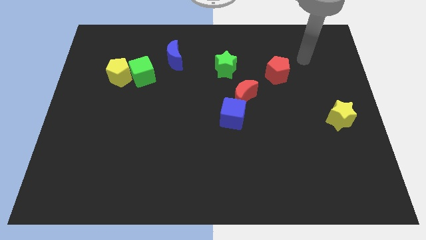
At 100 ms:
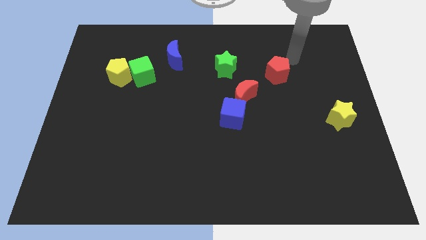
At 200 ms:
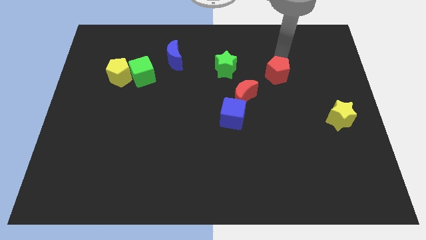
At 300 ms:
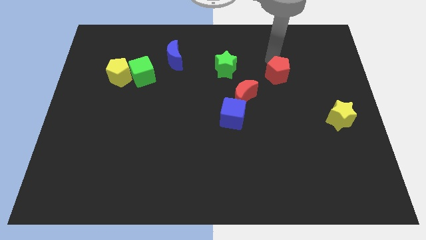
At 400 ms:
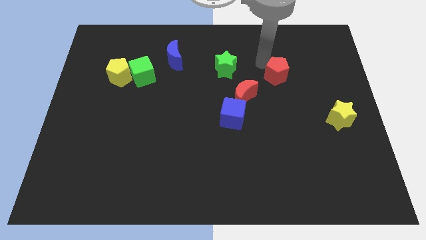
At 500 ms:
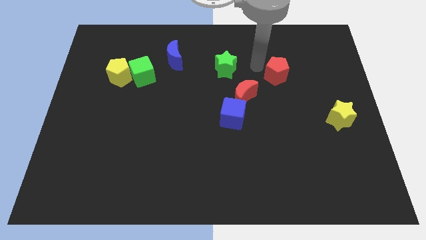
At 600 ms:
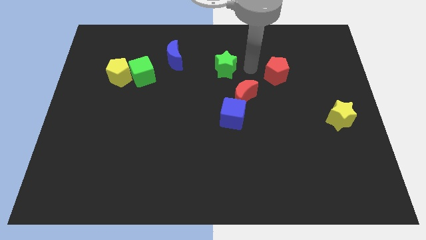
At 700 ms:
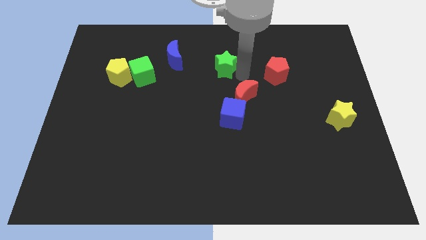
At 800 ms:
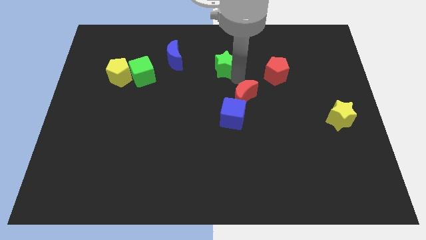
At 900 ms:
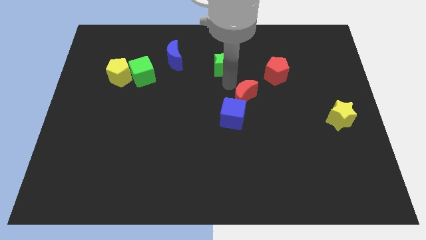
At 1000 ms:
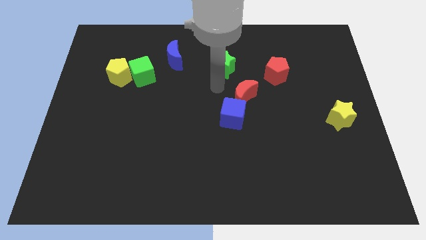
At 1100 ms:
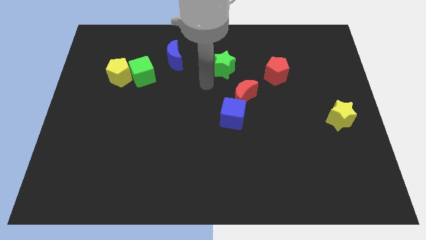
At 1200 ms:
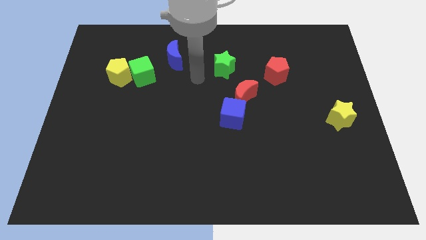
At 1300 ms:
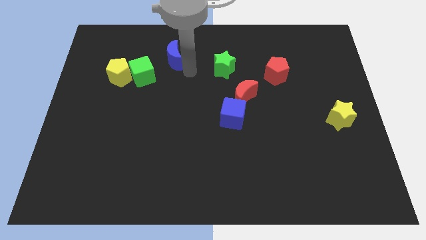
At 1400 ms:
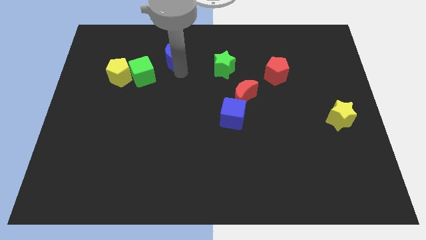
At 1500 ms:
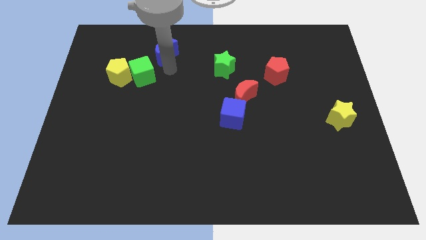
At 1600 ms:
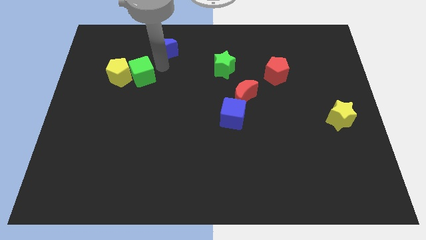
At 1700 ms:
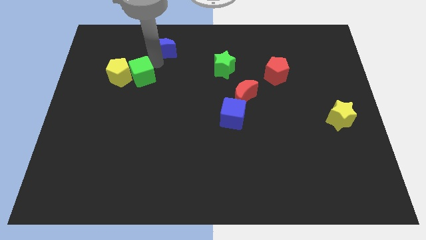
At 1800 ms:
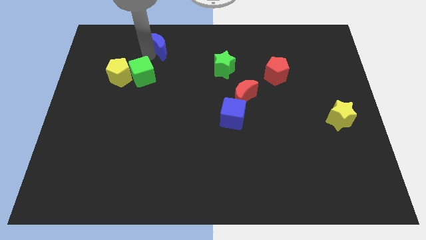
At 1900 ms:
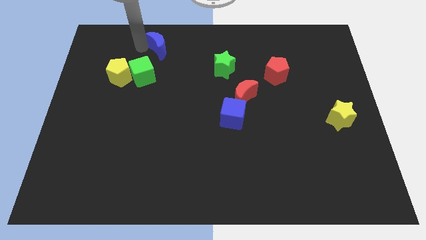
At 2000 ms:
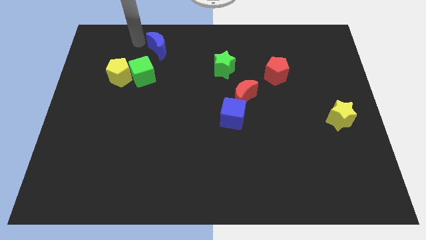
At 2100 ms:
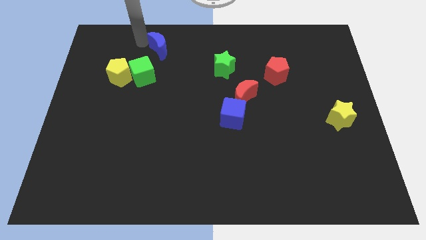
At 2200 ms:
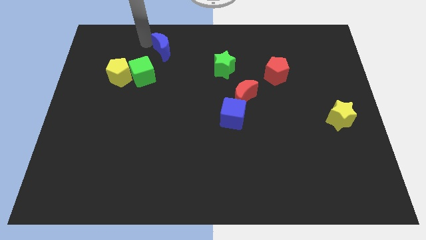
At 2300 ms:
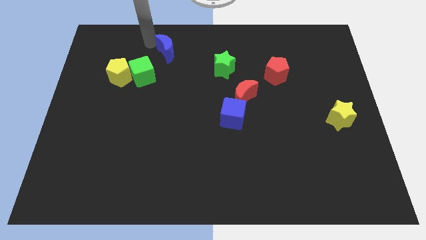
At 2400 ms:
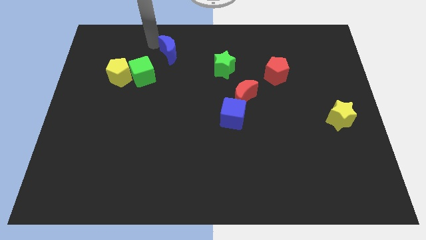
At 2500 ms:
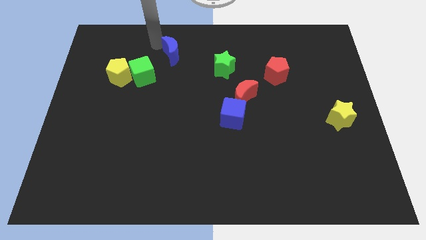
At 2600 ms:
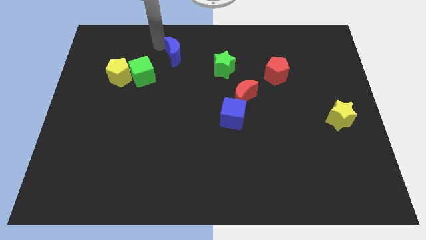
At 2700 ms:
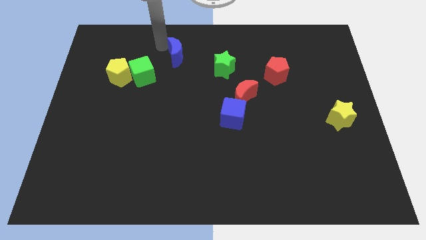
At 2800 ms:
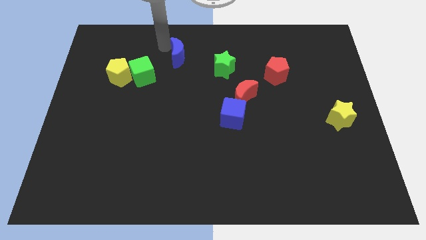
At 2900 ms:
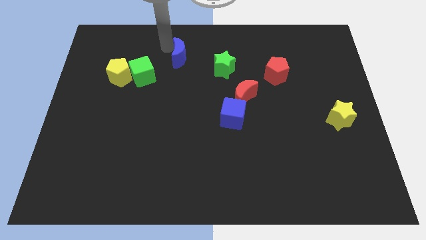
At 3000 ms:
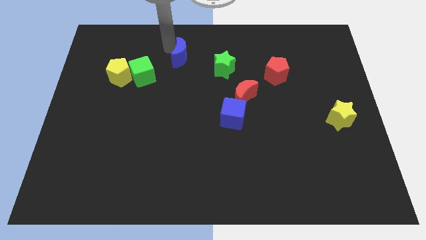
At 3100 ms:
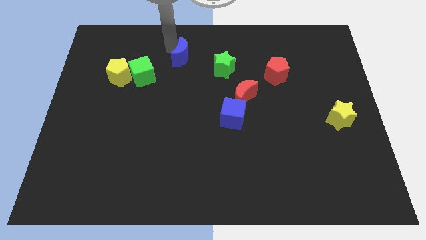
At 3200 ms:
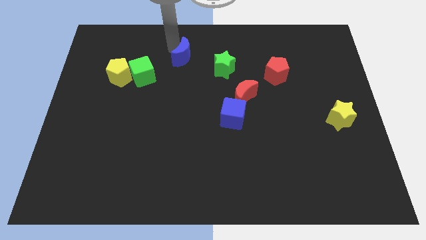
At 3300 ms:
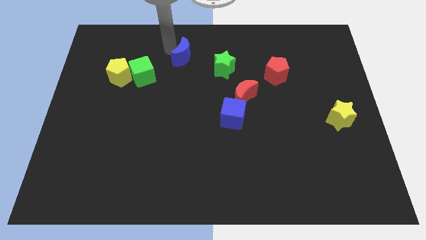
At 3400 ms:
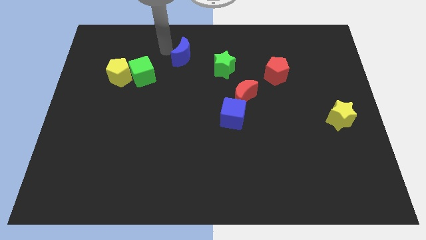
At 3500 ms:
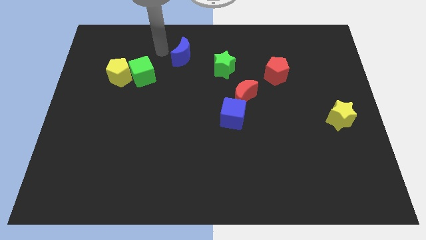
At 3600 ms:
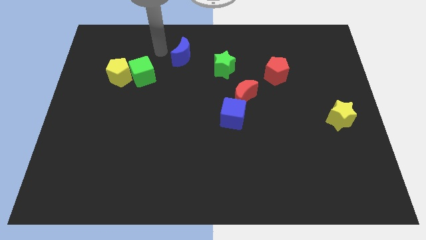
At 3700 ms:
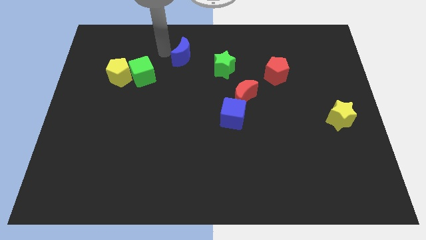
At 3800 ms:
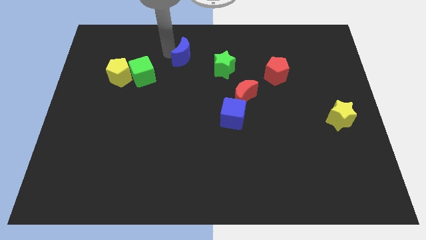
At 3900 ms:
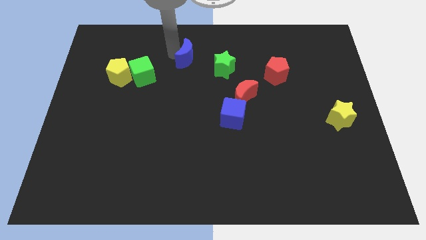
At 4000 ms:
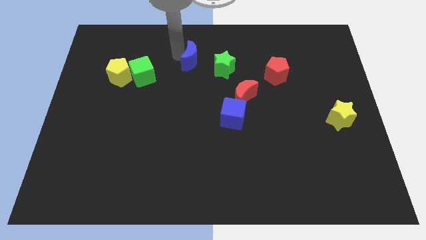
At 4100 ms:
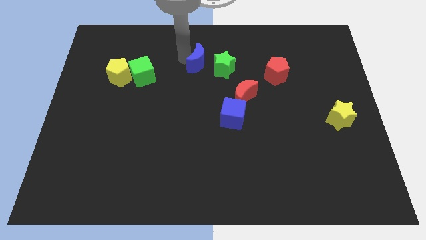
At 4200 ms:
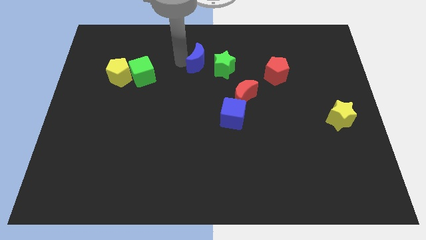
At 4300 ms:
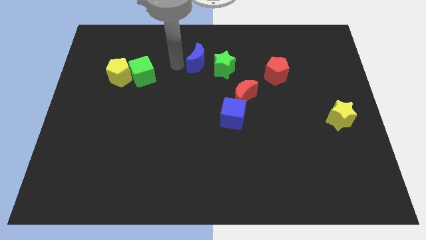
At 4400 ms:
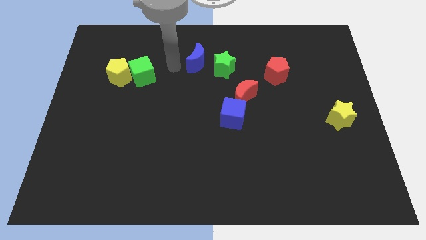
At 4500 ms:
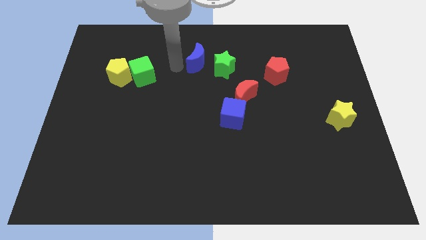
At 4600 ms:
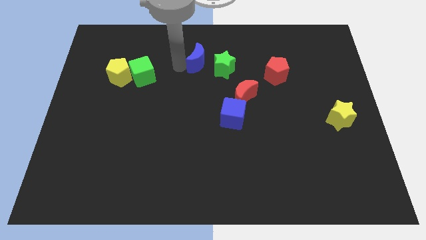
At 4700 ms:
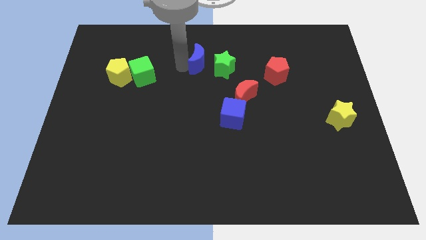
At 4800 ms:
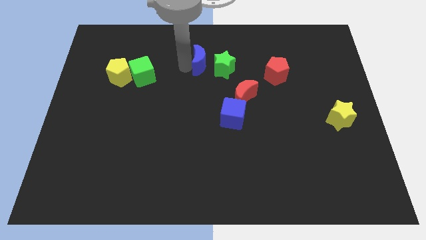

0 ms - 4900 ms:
slightly move the blue moon to the right

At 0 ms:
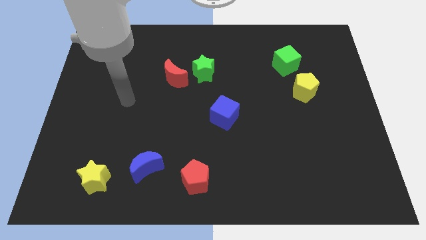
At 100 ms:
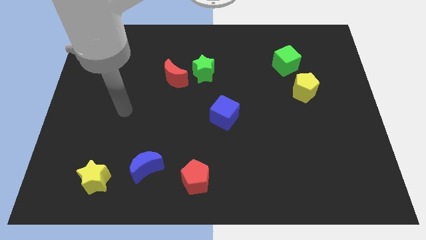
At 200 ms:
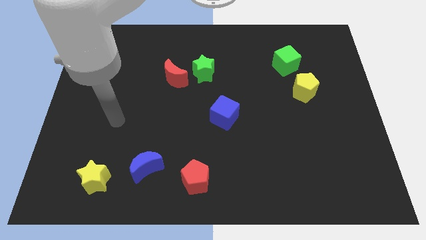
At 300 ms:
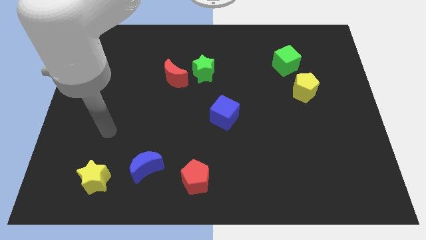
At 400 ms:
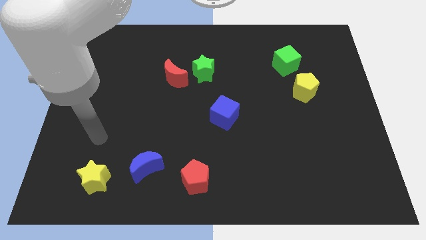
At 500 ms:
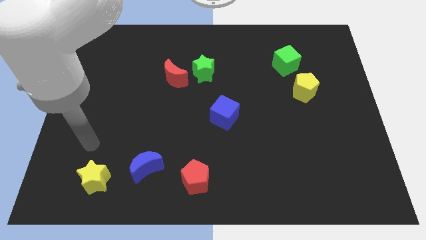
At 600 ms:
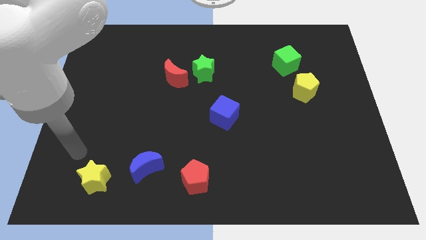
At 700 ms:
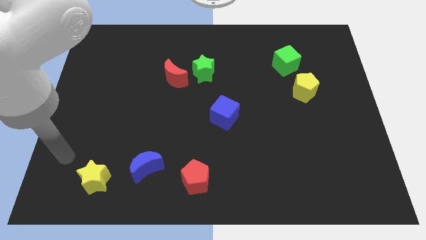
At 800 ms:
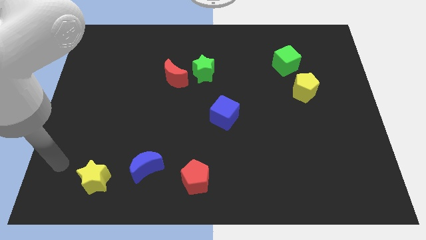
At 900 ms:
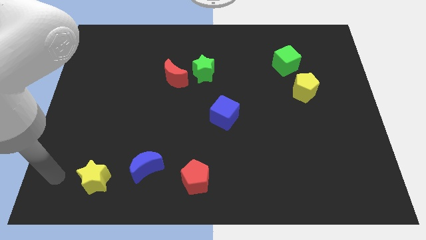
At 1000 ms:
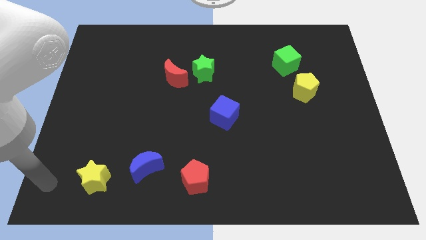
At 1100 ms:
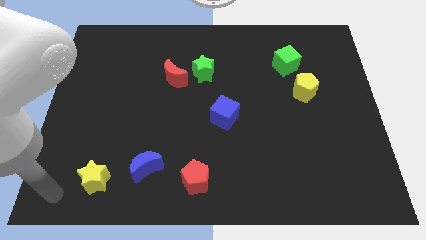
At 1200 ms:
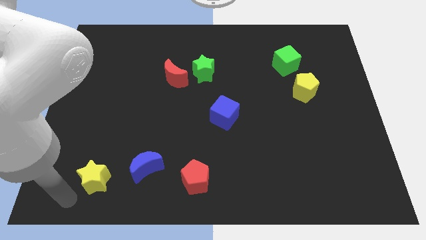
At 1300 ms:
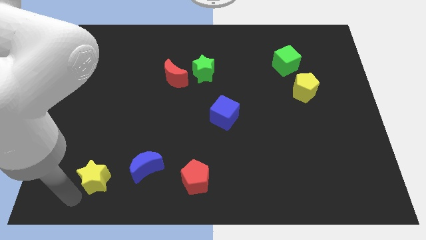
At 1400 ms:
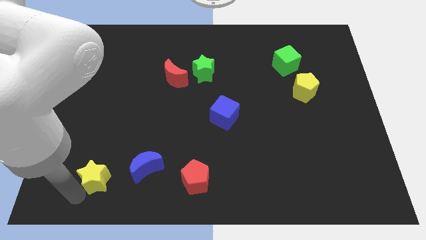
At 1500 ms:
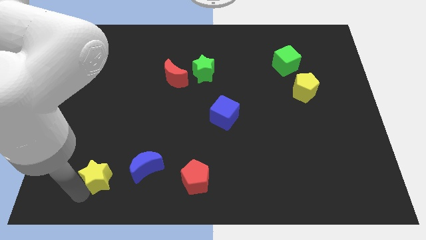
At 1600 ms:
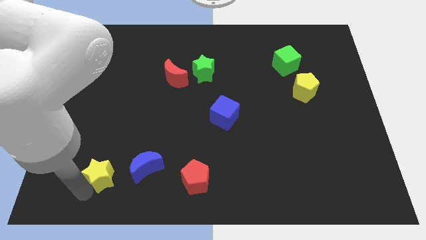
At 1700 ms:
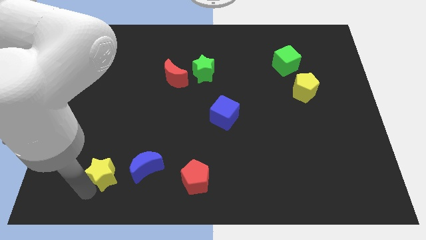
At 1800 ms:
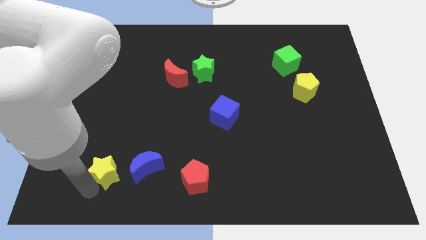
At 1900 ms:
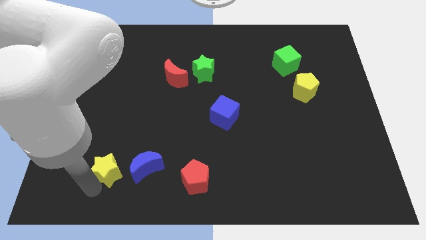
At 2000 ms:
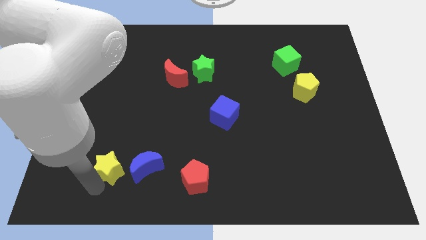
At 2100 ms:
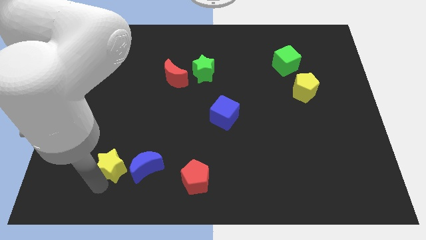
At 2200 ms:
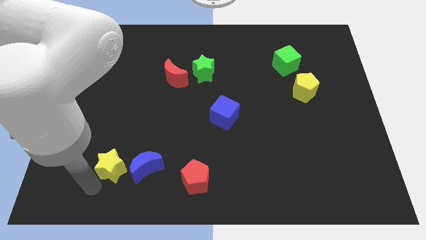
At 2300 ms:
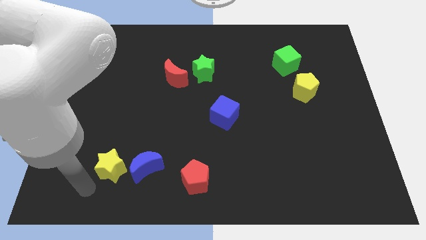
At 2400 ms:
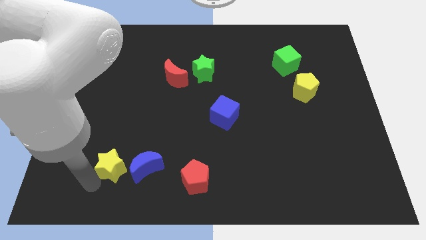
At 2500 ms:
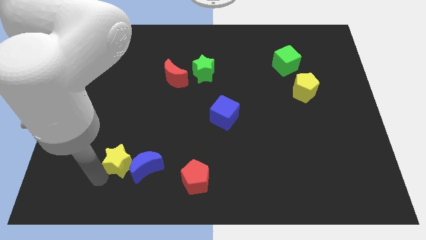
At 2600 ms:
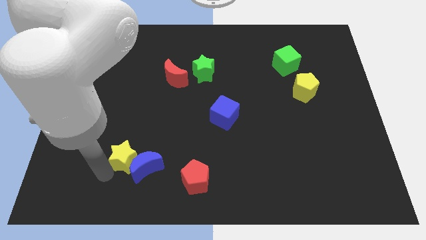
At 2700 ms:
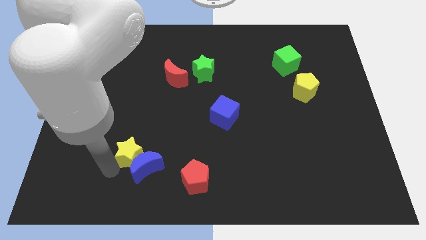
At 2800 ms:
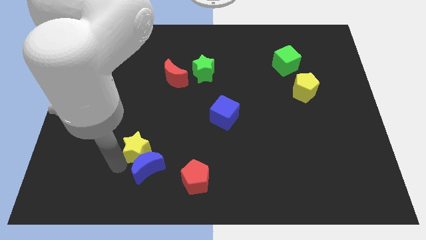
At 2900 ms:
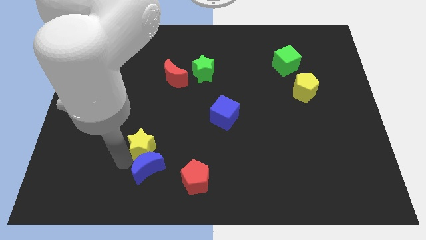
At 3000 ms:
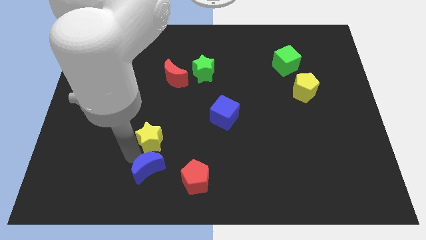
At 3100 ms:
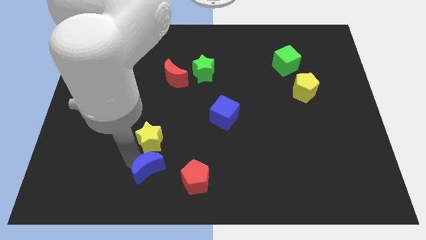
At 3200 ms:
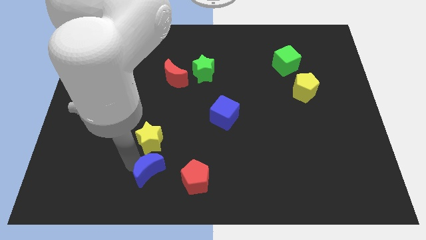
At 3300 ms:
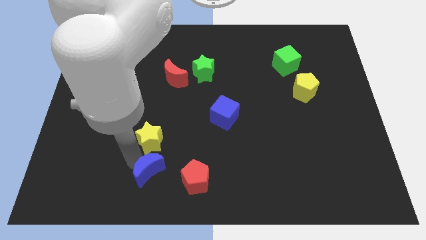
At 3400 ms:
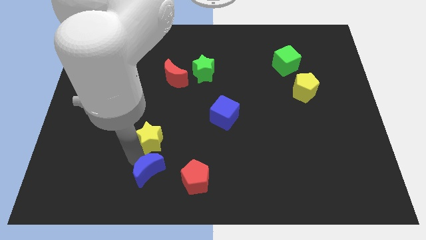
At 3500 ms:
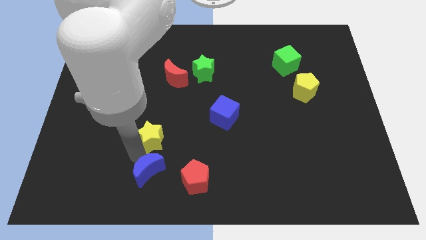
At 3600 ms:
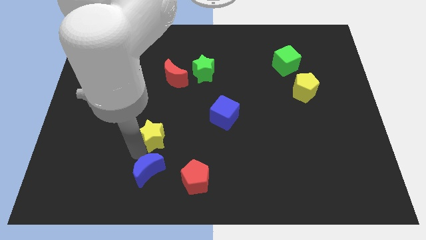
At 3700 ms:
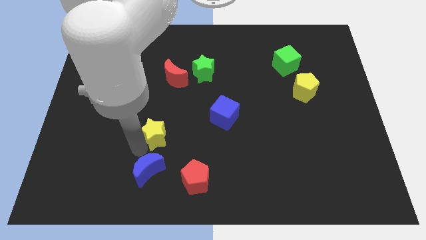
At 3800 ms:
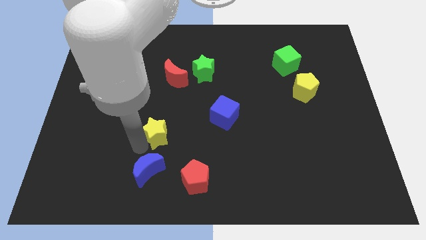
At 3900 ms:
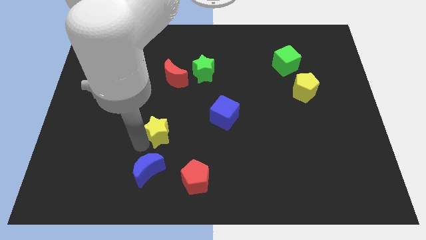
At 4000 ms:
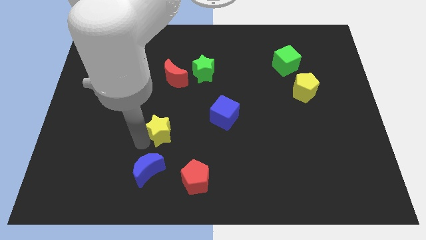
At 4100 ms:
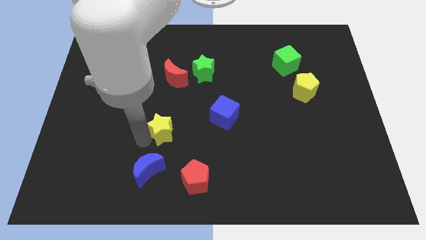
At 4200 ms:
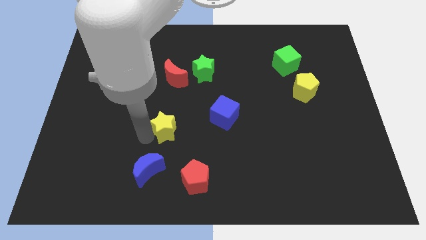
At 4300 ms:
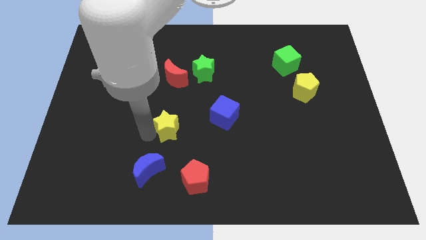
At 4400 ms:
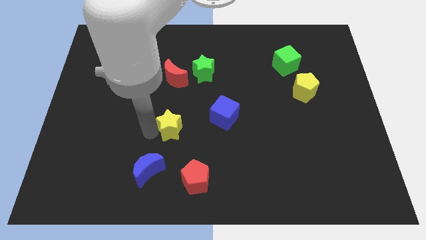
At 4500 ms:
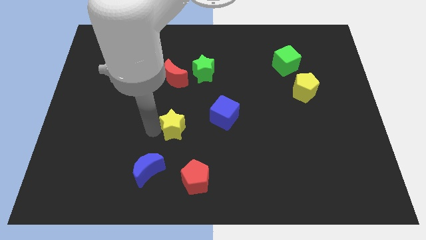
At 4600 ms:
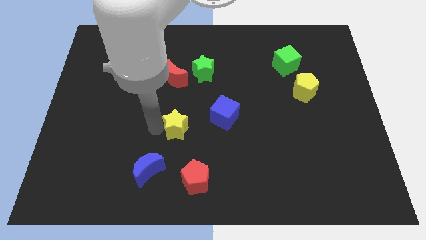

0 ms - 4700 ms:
move the yellow star up and to the right diagonally
